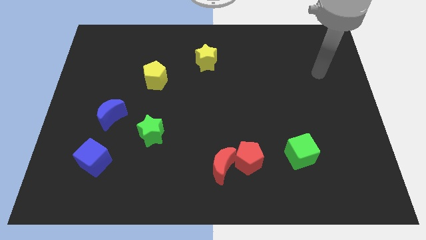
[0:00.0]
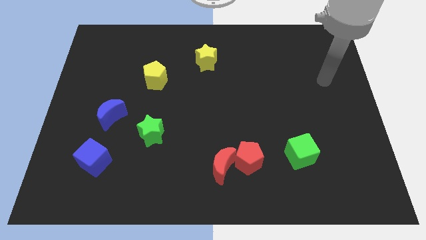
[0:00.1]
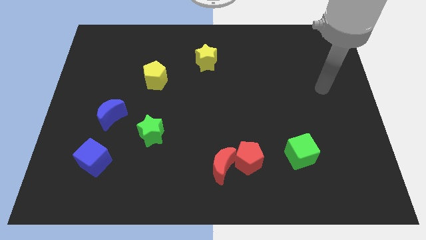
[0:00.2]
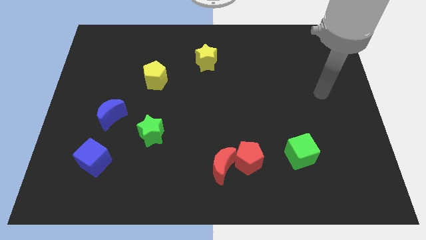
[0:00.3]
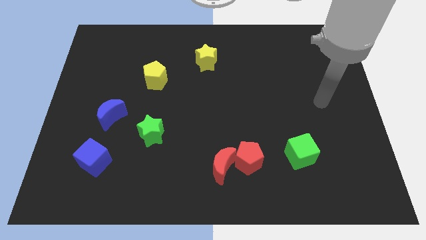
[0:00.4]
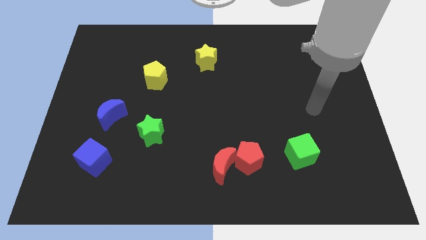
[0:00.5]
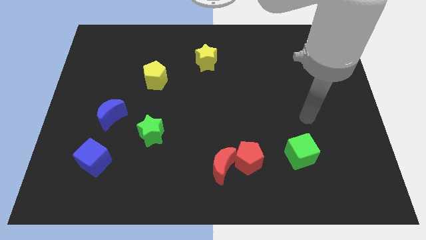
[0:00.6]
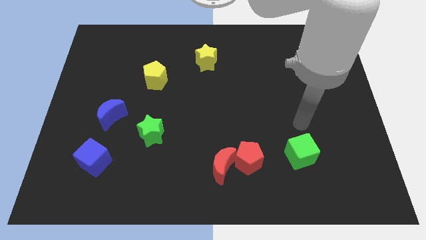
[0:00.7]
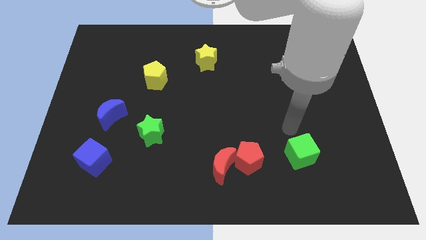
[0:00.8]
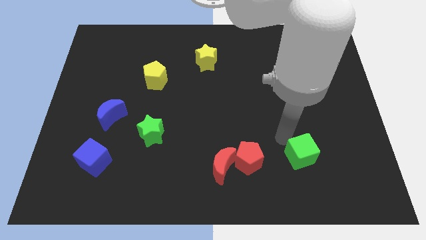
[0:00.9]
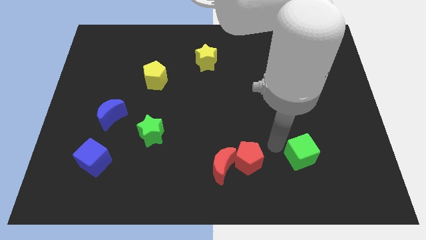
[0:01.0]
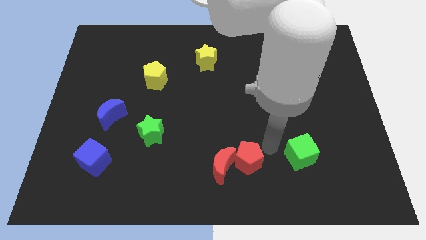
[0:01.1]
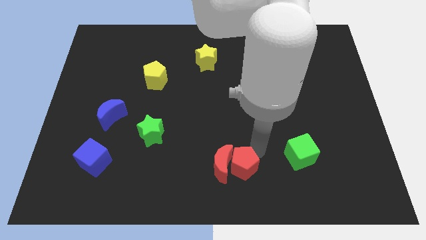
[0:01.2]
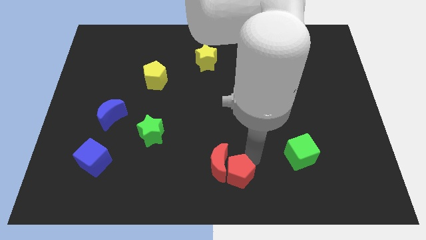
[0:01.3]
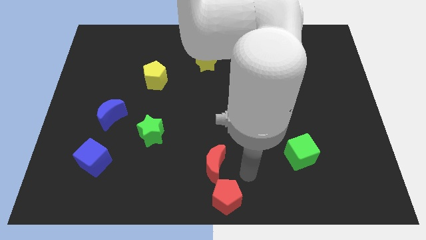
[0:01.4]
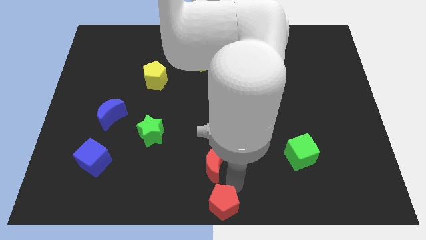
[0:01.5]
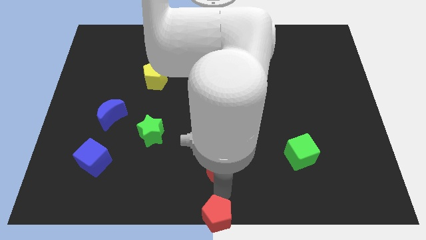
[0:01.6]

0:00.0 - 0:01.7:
separate the red moon from the red pentagon

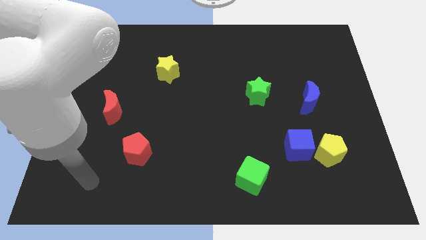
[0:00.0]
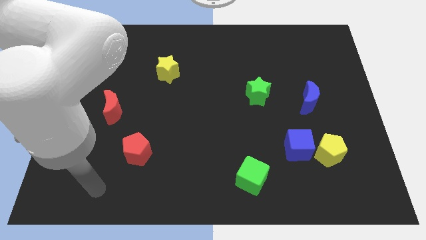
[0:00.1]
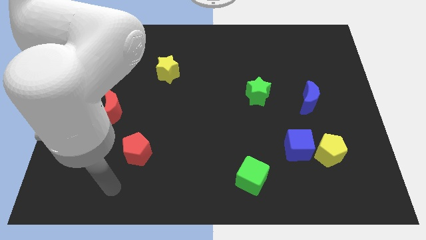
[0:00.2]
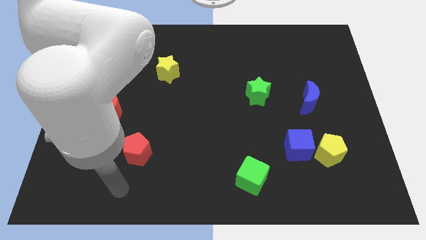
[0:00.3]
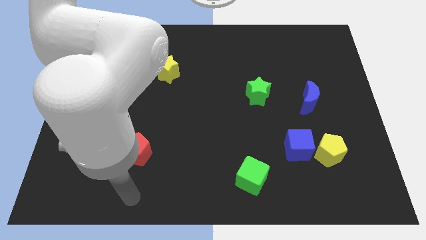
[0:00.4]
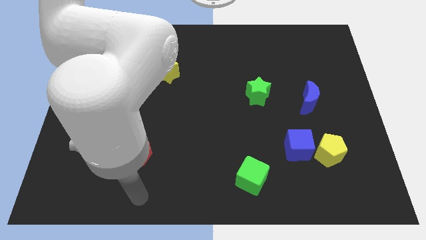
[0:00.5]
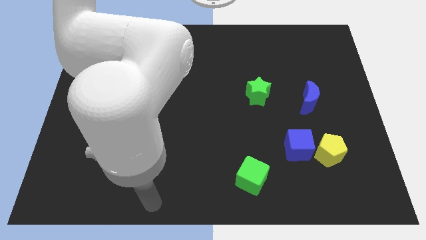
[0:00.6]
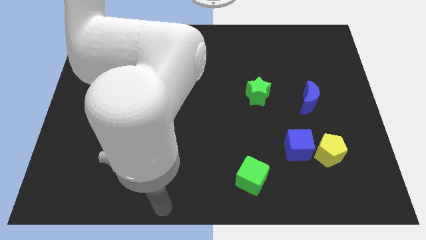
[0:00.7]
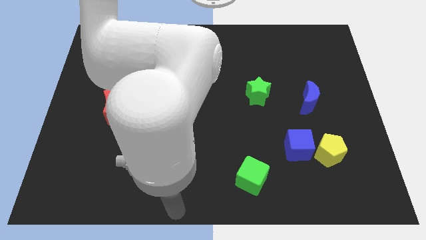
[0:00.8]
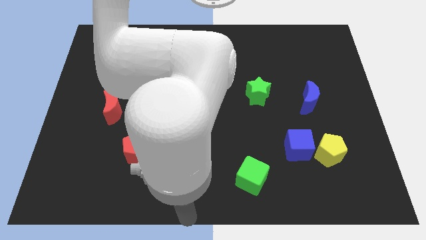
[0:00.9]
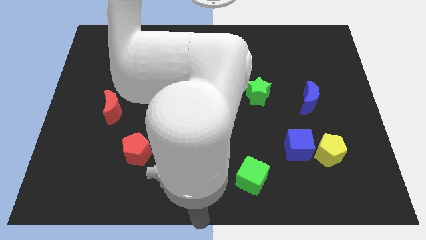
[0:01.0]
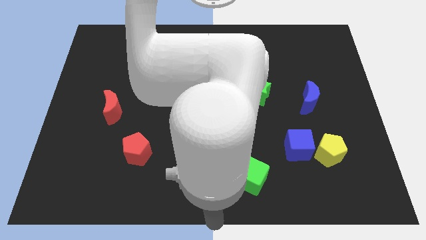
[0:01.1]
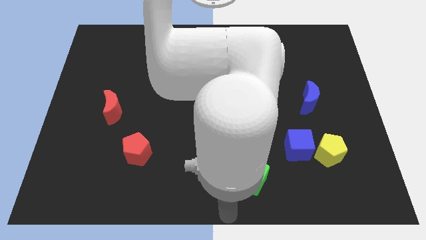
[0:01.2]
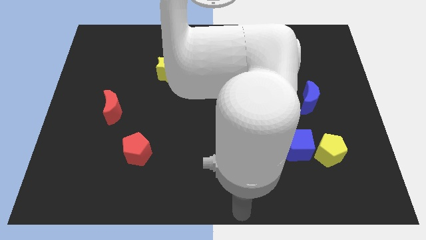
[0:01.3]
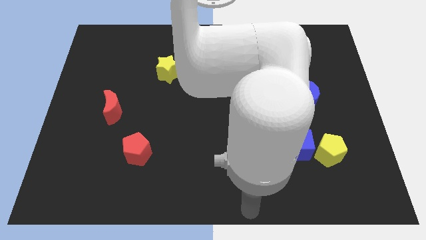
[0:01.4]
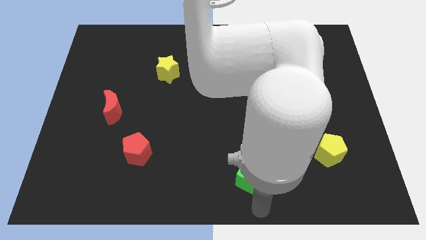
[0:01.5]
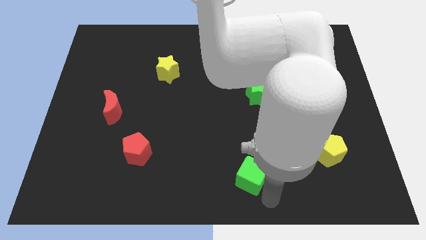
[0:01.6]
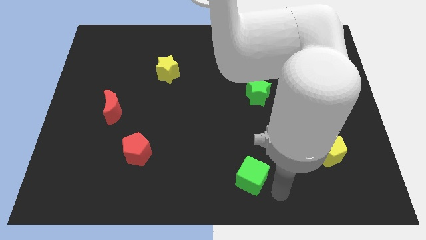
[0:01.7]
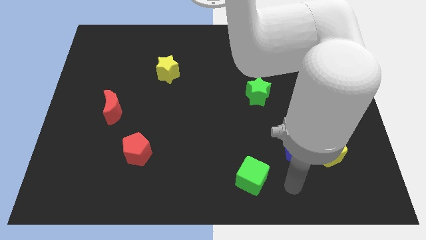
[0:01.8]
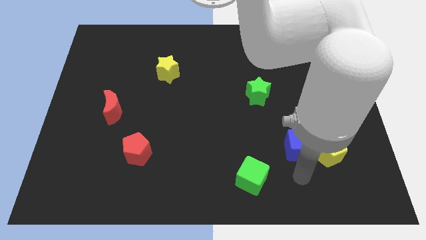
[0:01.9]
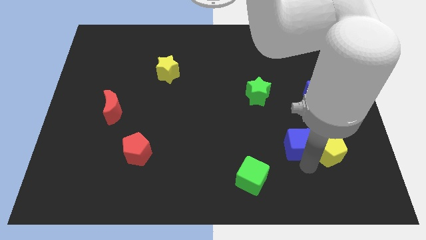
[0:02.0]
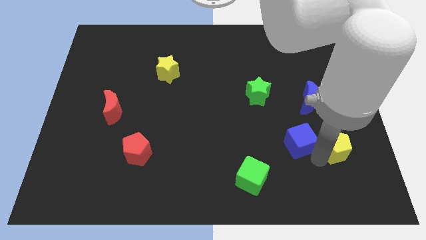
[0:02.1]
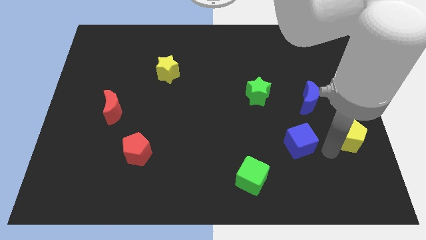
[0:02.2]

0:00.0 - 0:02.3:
move the blue cube away from the yellow pentagon

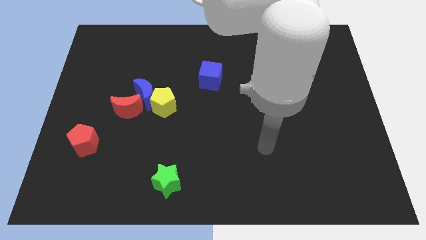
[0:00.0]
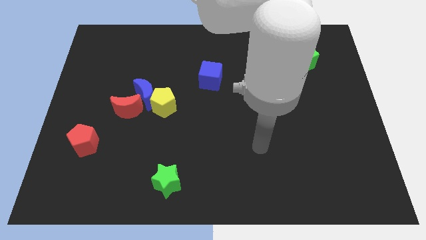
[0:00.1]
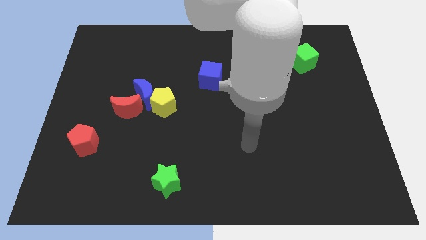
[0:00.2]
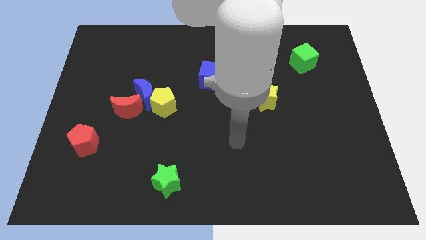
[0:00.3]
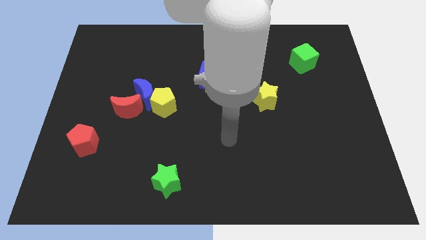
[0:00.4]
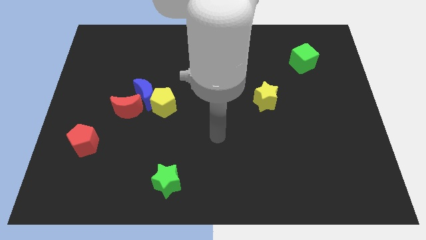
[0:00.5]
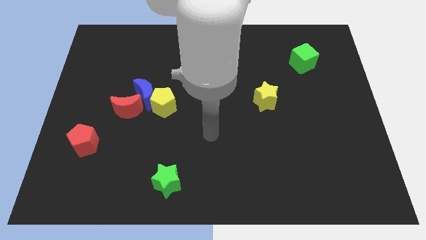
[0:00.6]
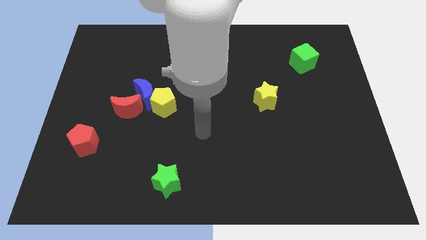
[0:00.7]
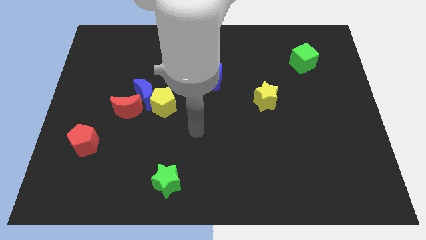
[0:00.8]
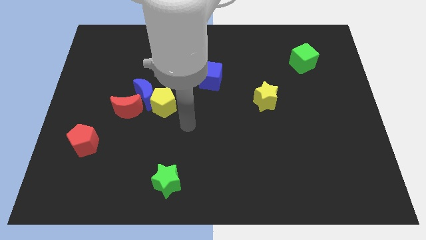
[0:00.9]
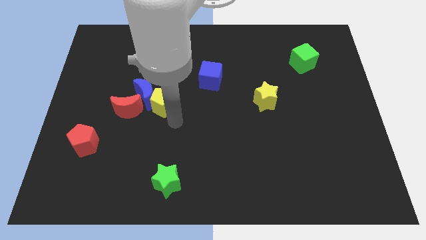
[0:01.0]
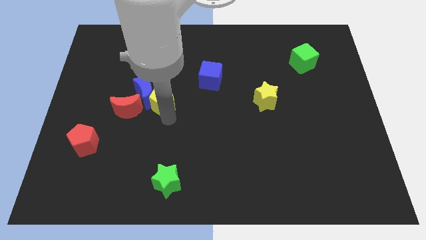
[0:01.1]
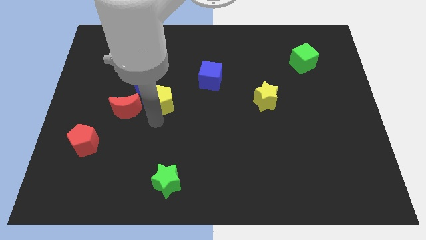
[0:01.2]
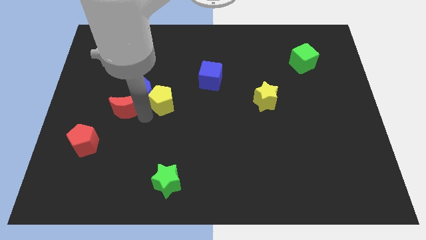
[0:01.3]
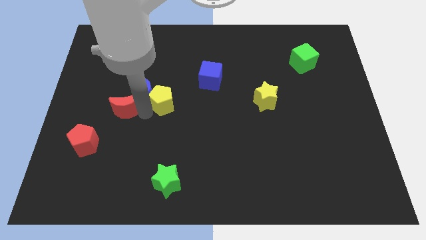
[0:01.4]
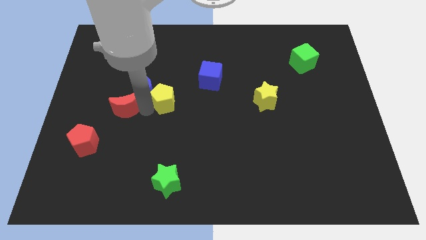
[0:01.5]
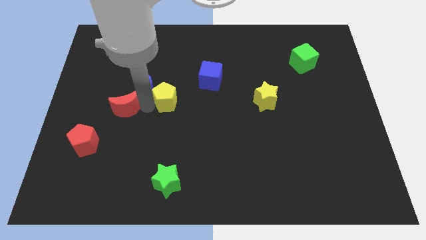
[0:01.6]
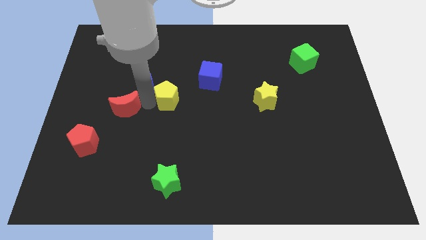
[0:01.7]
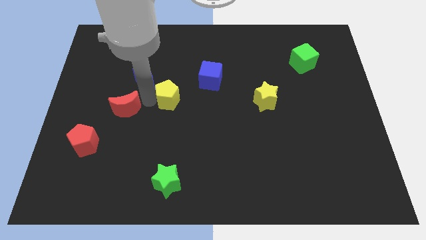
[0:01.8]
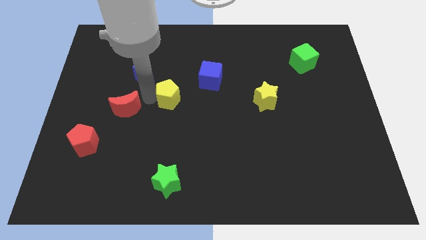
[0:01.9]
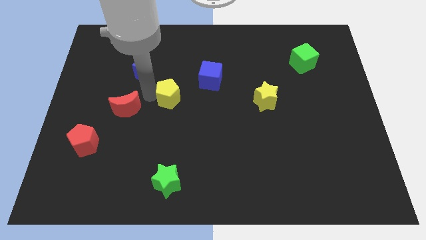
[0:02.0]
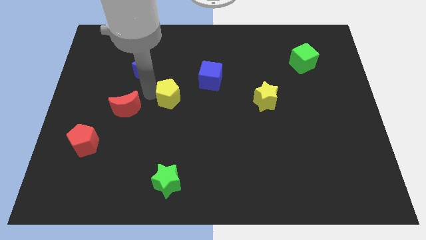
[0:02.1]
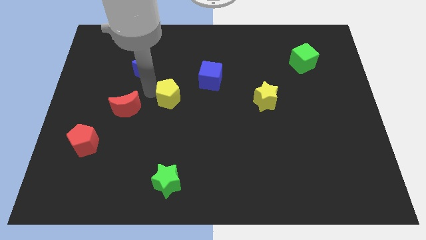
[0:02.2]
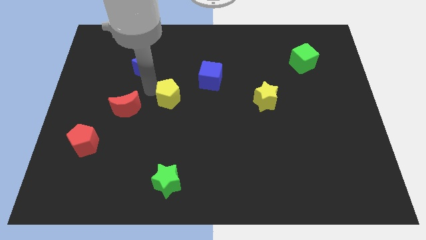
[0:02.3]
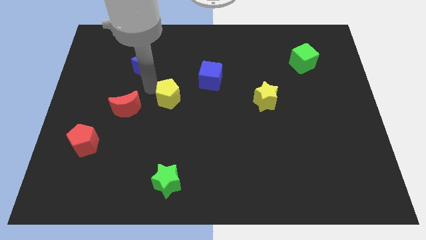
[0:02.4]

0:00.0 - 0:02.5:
move the blue moon away from the yellow pentagon and red moon

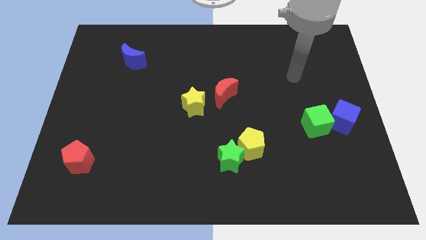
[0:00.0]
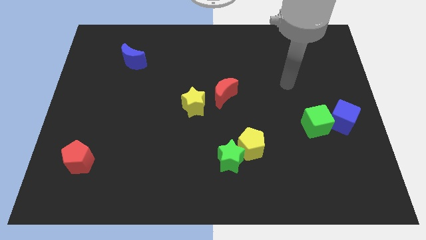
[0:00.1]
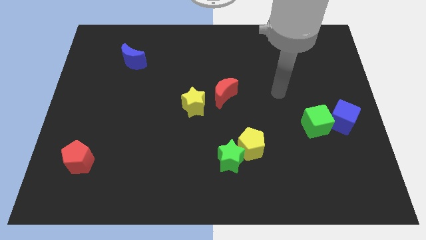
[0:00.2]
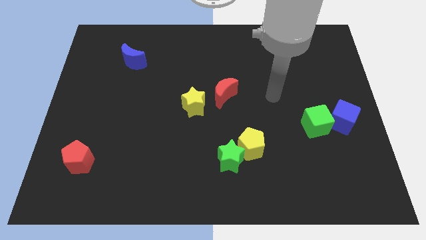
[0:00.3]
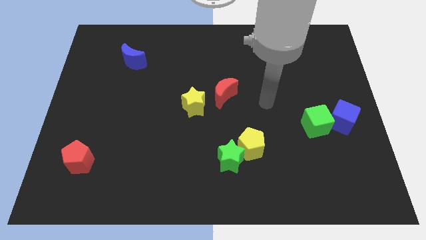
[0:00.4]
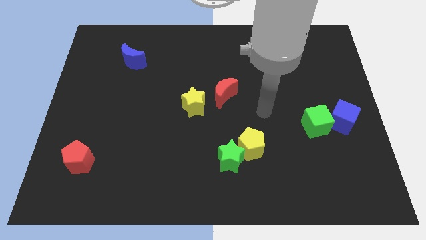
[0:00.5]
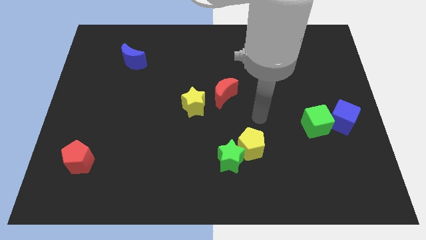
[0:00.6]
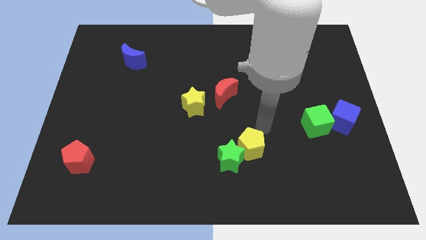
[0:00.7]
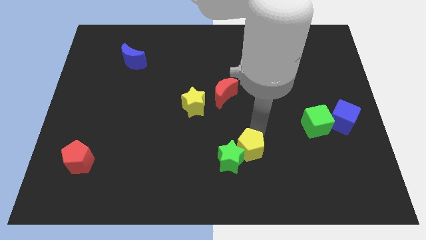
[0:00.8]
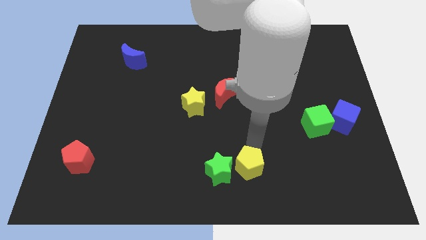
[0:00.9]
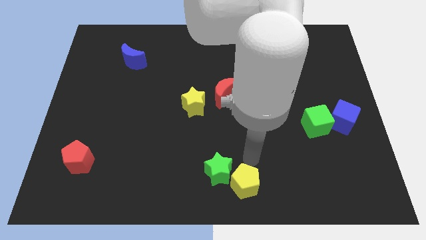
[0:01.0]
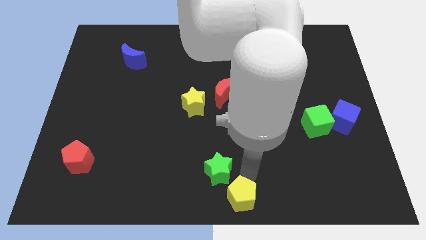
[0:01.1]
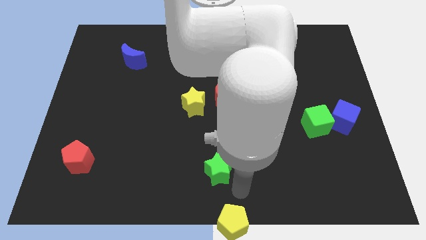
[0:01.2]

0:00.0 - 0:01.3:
separate the green star from the yellow pentagon

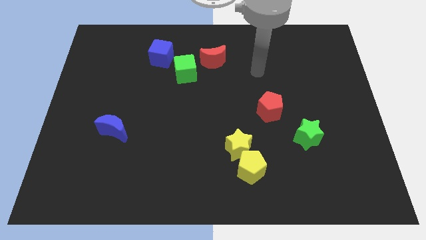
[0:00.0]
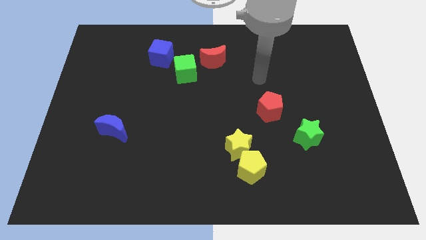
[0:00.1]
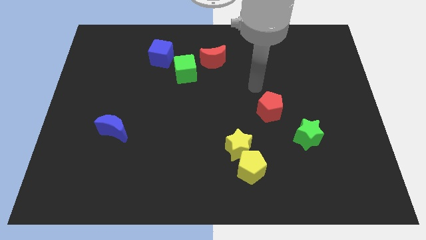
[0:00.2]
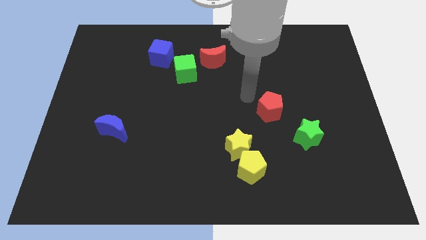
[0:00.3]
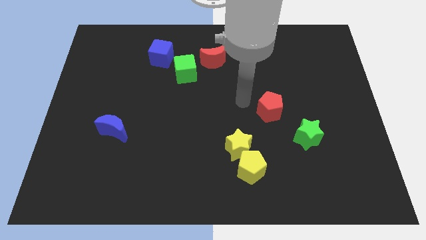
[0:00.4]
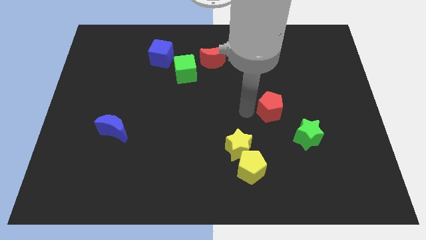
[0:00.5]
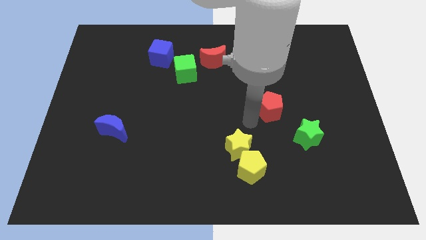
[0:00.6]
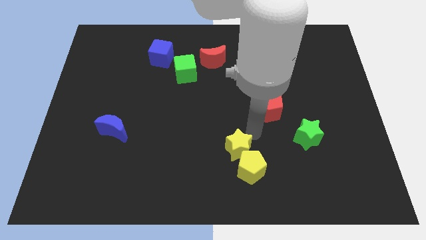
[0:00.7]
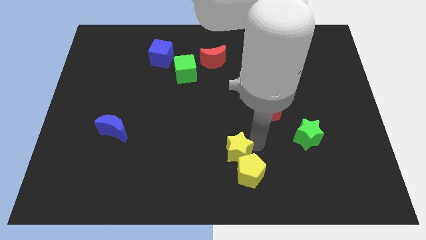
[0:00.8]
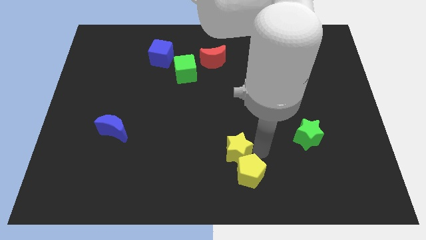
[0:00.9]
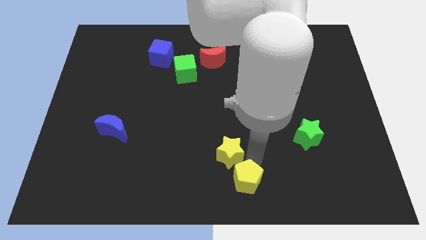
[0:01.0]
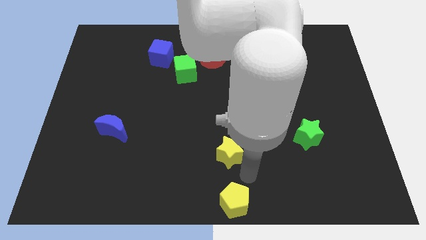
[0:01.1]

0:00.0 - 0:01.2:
separate the yellow star from the yellow pentagon

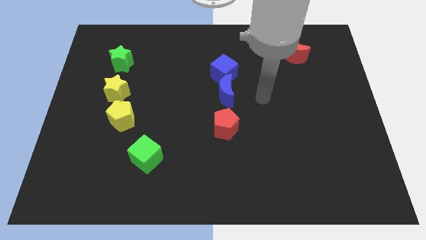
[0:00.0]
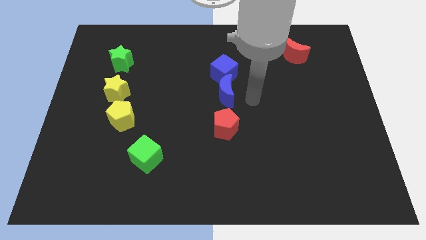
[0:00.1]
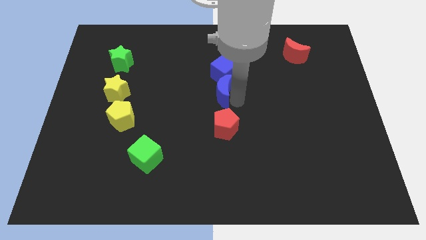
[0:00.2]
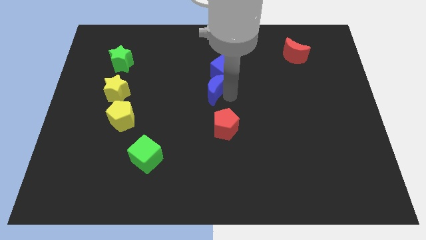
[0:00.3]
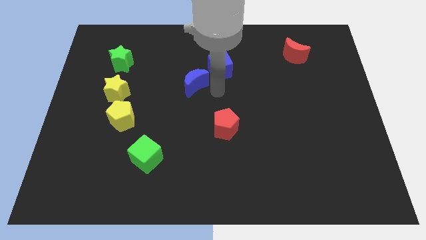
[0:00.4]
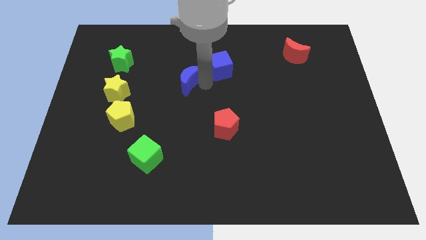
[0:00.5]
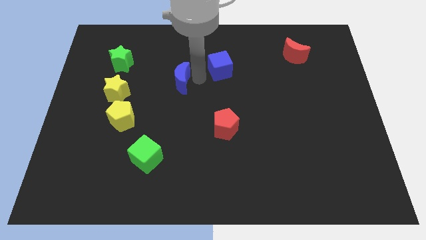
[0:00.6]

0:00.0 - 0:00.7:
move the blue cube away from the blue moon
